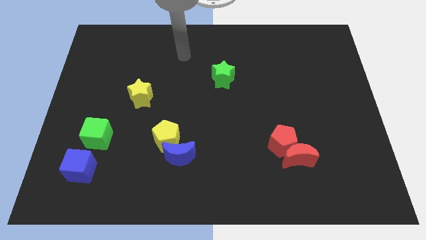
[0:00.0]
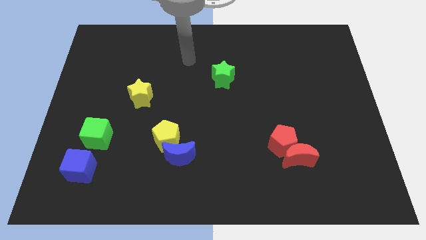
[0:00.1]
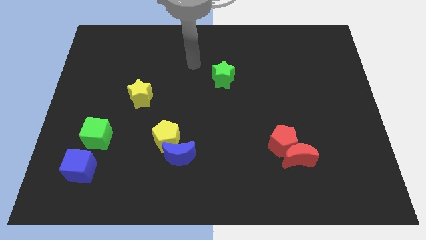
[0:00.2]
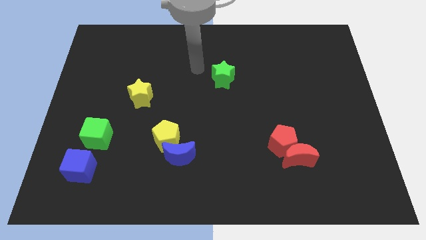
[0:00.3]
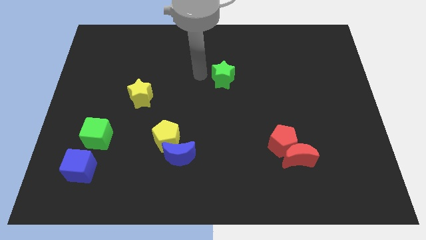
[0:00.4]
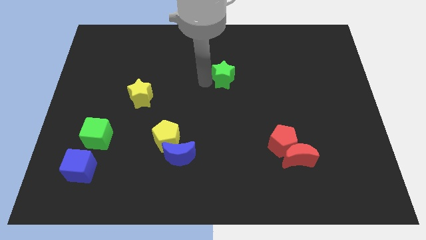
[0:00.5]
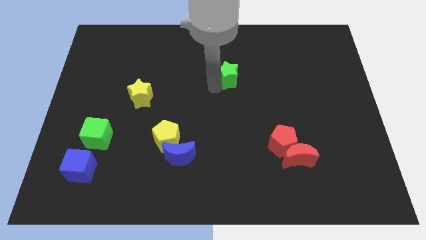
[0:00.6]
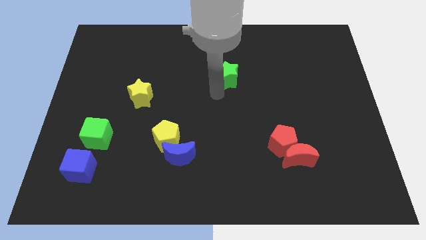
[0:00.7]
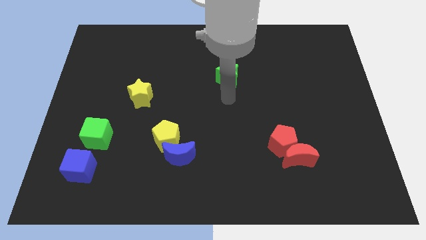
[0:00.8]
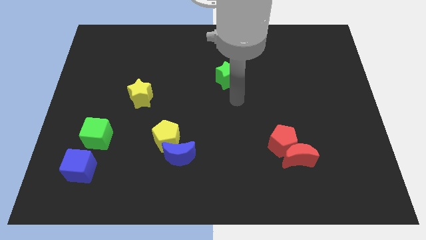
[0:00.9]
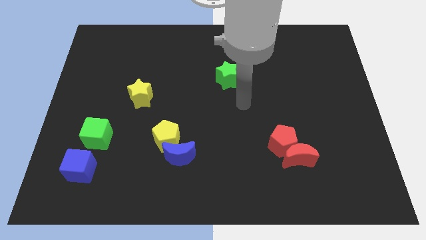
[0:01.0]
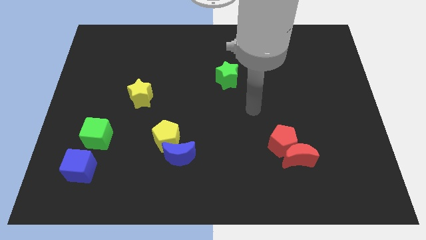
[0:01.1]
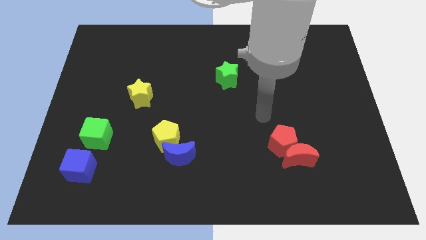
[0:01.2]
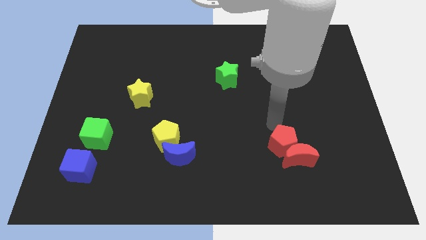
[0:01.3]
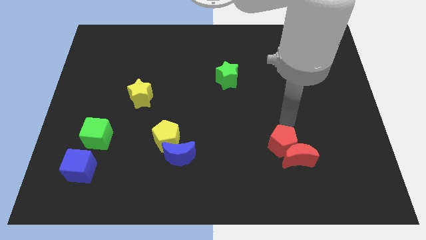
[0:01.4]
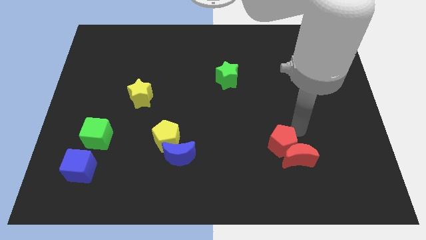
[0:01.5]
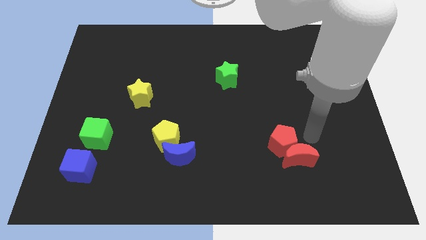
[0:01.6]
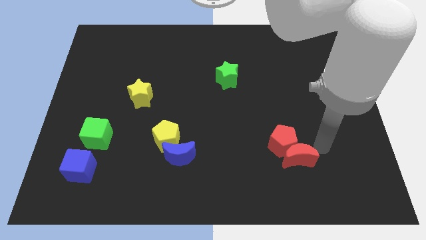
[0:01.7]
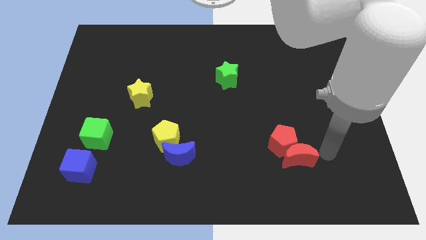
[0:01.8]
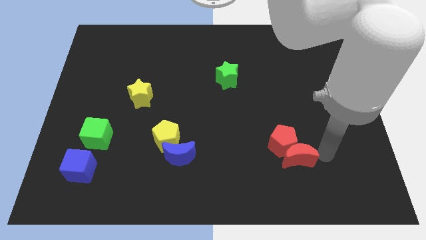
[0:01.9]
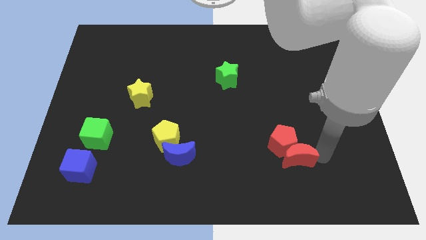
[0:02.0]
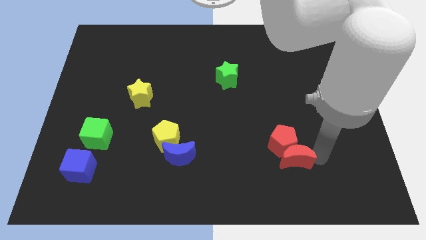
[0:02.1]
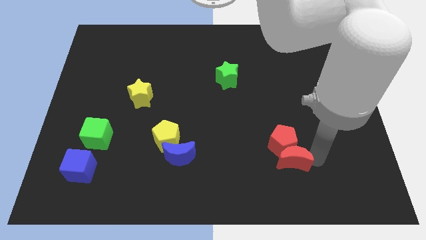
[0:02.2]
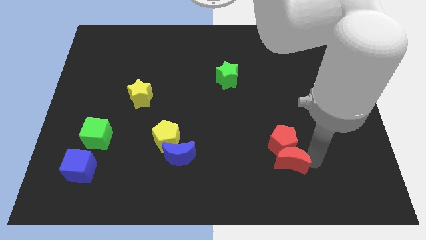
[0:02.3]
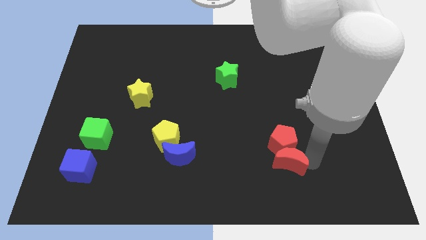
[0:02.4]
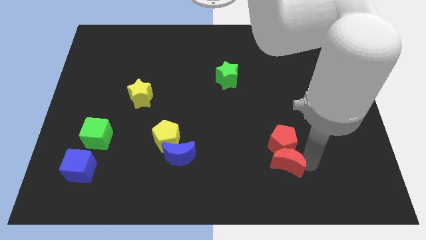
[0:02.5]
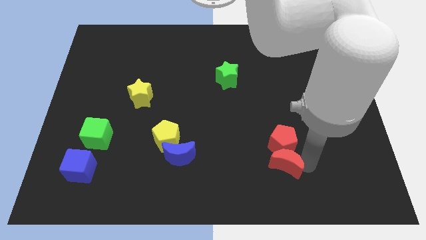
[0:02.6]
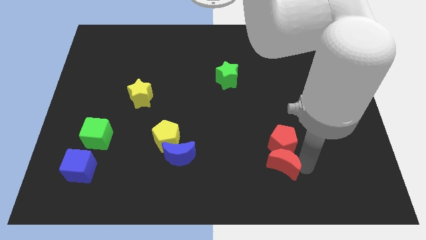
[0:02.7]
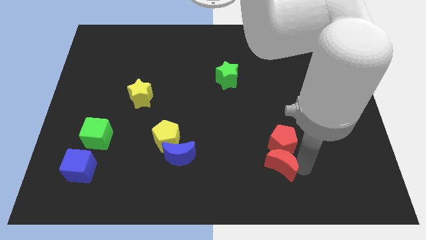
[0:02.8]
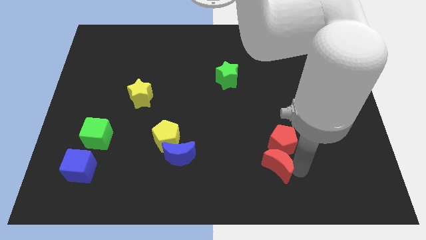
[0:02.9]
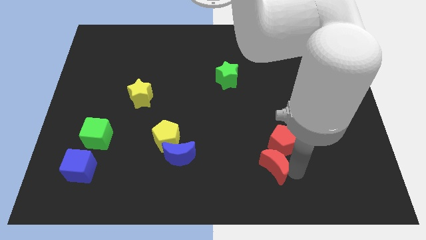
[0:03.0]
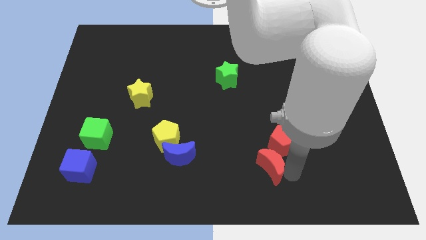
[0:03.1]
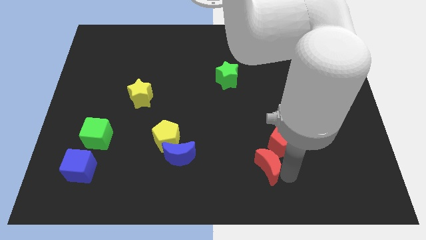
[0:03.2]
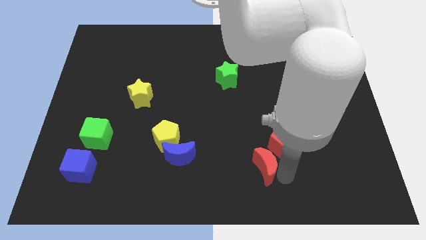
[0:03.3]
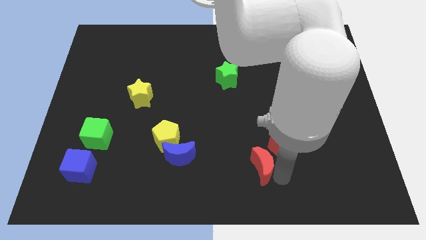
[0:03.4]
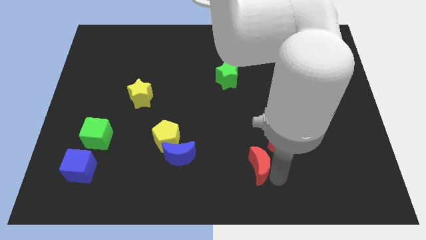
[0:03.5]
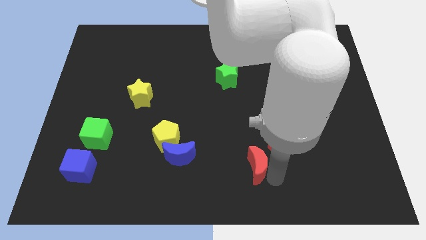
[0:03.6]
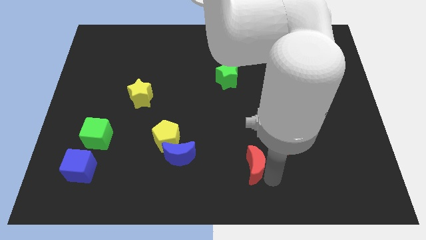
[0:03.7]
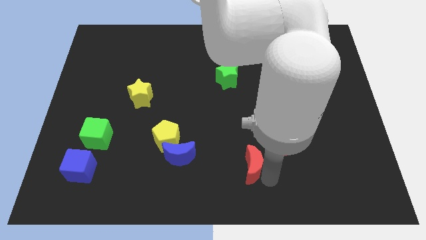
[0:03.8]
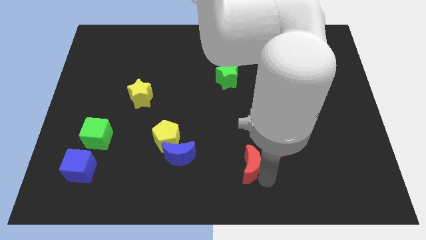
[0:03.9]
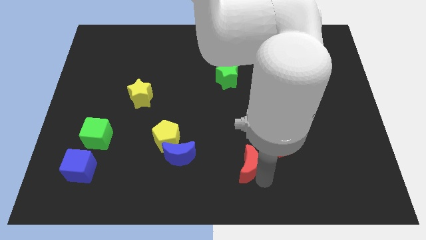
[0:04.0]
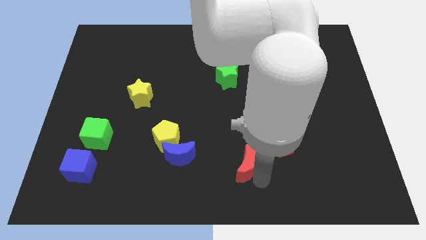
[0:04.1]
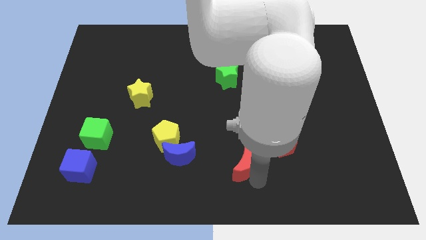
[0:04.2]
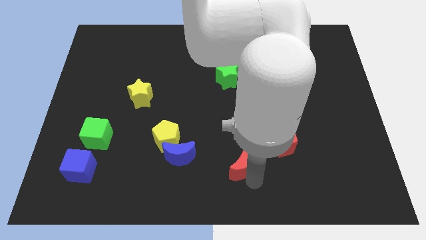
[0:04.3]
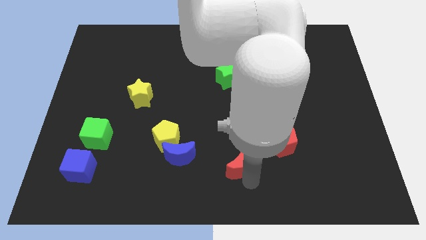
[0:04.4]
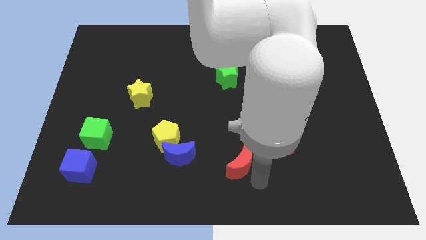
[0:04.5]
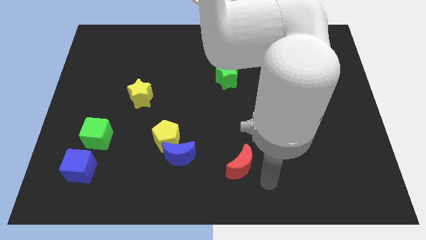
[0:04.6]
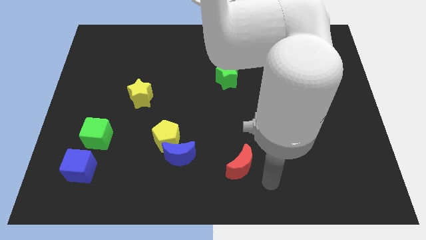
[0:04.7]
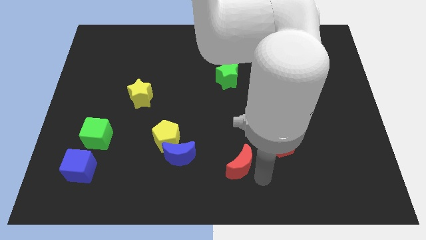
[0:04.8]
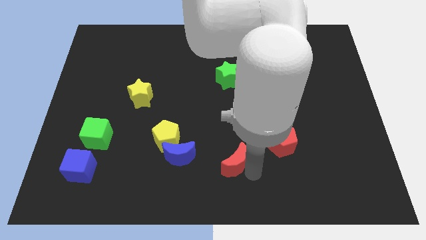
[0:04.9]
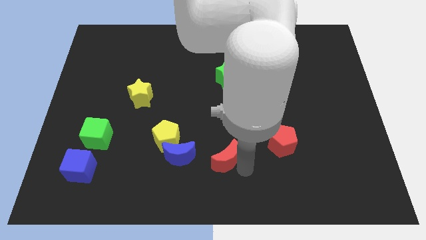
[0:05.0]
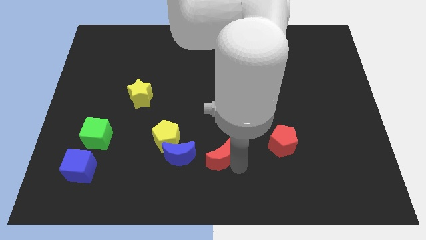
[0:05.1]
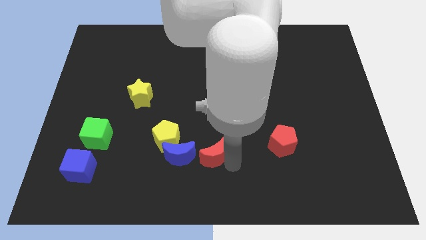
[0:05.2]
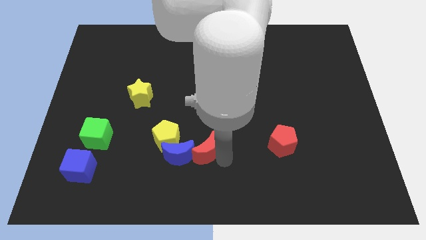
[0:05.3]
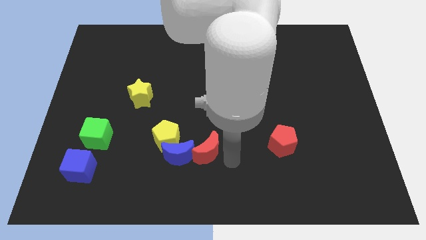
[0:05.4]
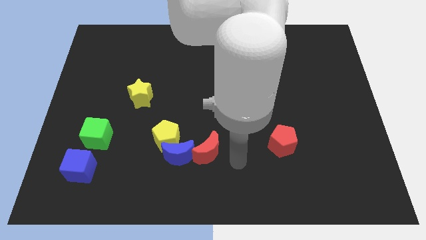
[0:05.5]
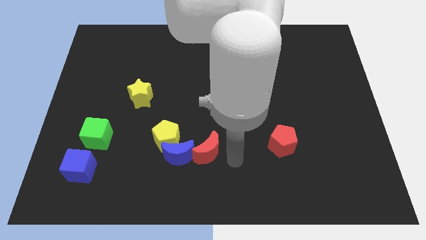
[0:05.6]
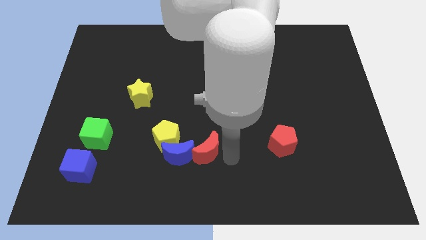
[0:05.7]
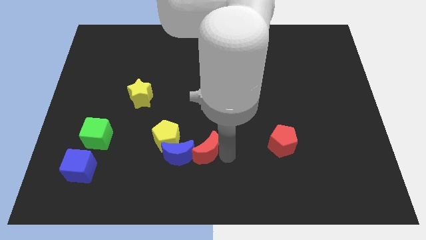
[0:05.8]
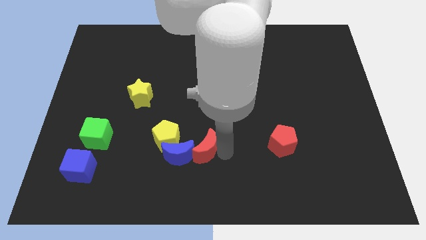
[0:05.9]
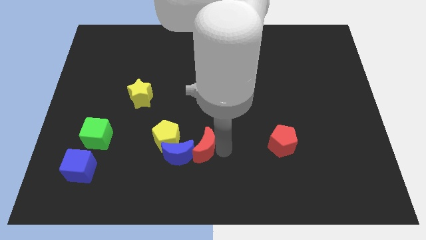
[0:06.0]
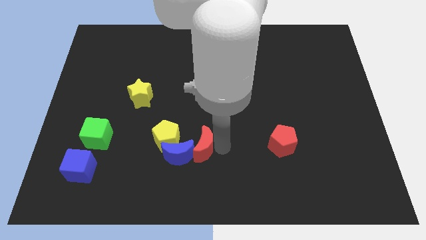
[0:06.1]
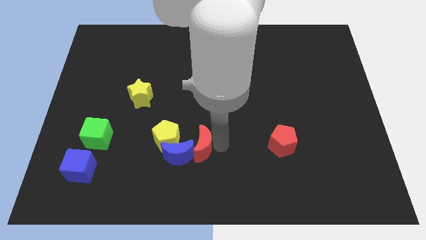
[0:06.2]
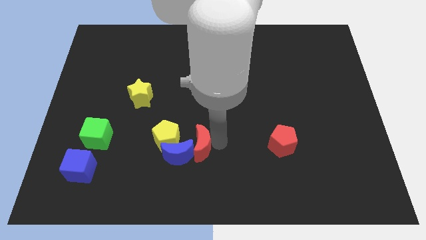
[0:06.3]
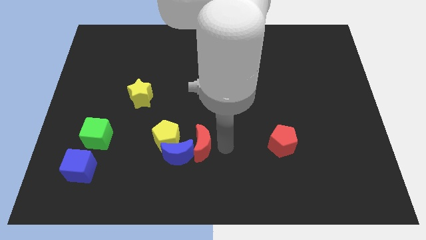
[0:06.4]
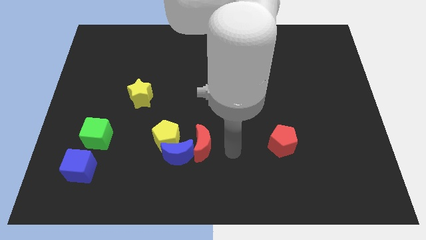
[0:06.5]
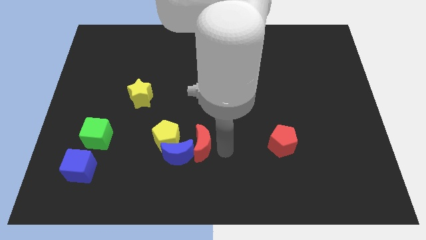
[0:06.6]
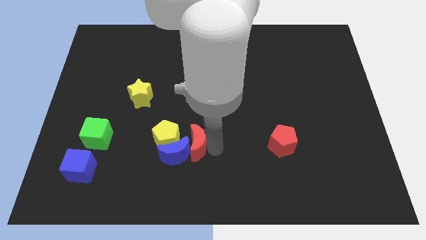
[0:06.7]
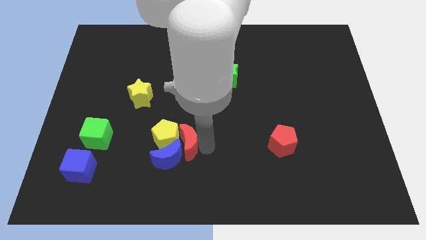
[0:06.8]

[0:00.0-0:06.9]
slide the red moon towards the yellow pentagon
